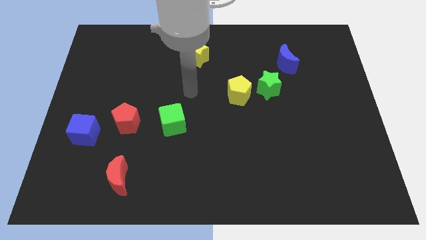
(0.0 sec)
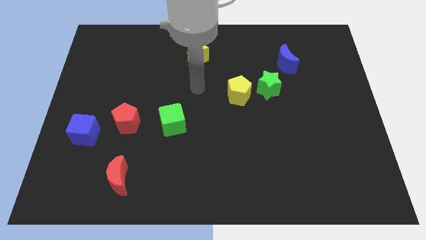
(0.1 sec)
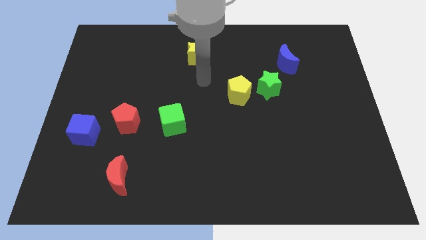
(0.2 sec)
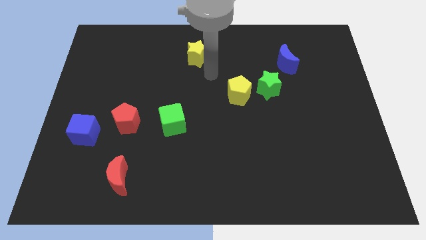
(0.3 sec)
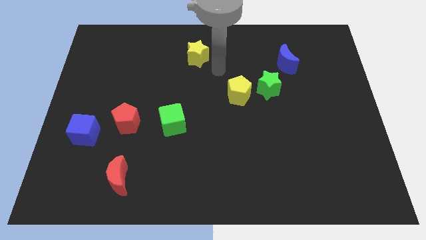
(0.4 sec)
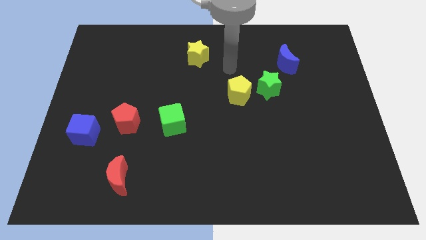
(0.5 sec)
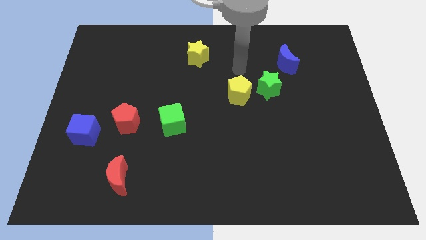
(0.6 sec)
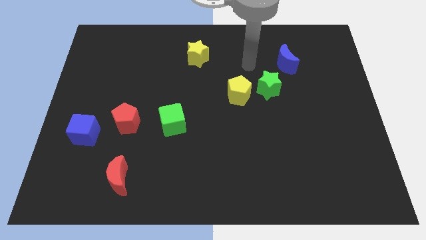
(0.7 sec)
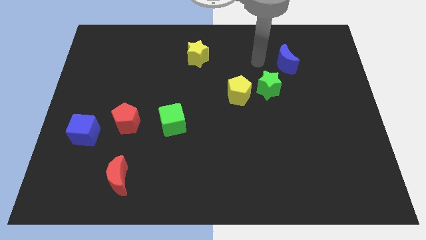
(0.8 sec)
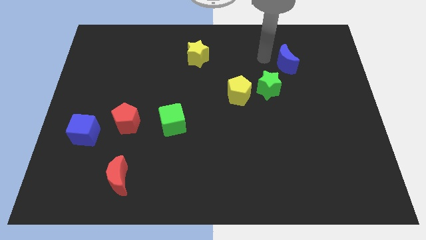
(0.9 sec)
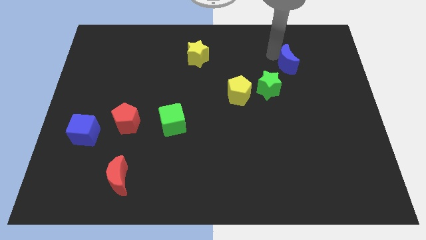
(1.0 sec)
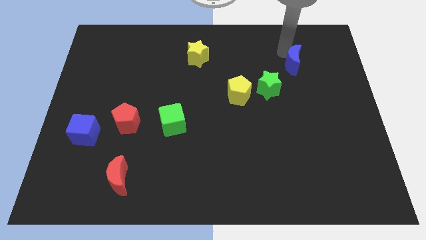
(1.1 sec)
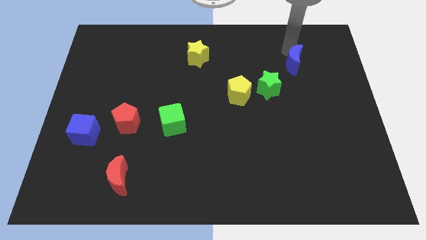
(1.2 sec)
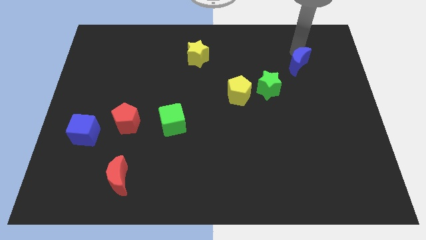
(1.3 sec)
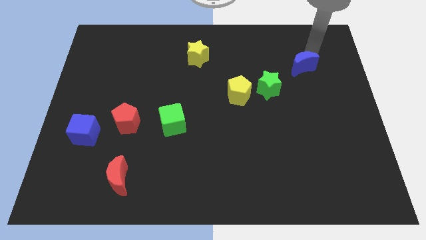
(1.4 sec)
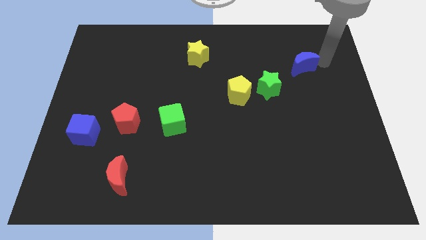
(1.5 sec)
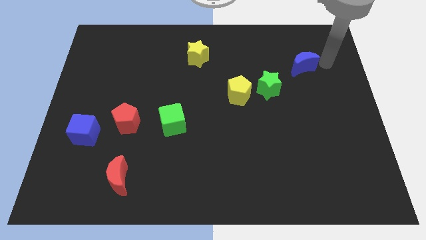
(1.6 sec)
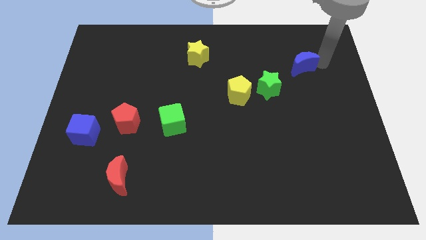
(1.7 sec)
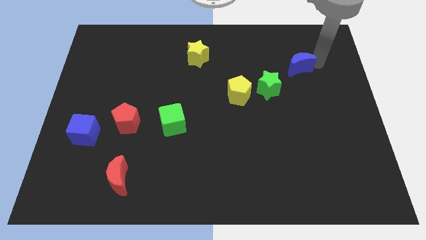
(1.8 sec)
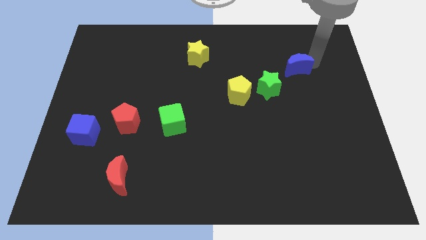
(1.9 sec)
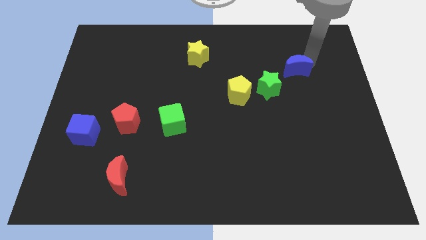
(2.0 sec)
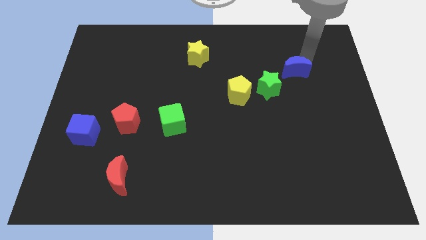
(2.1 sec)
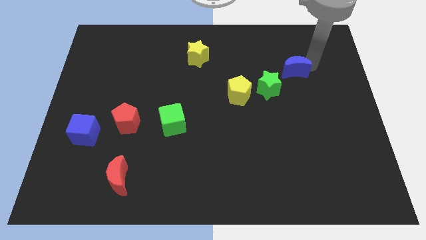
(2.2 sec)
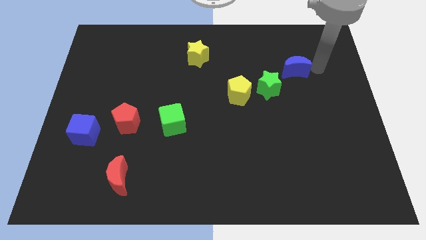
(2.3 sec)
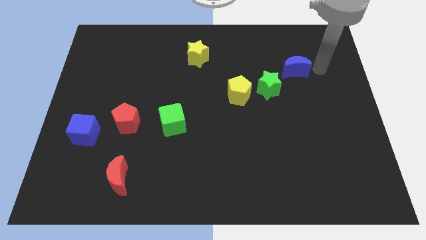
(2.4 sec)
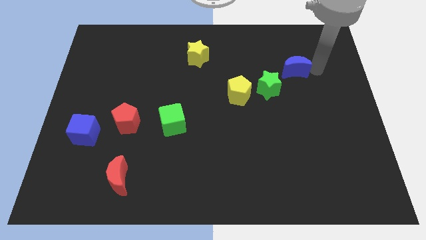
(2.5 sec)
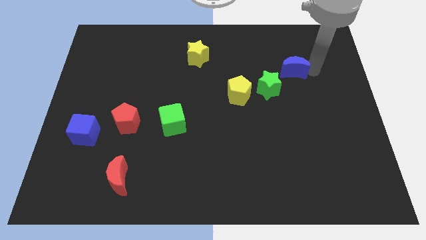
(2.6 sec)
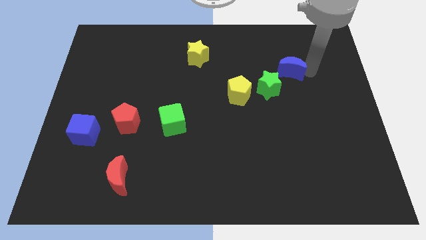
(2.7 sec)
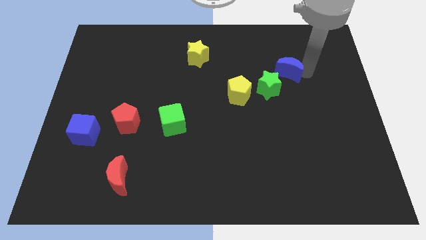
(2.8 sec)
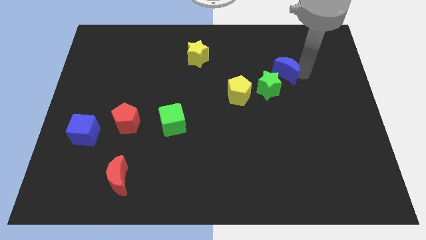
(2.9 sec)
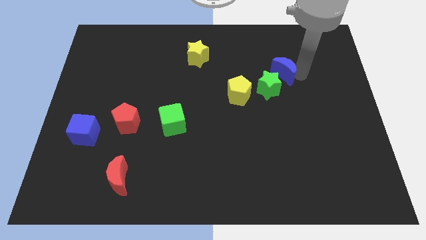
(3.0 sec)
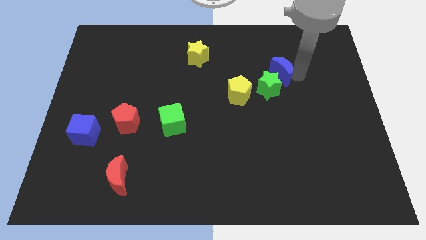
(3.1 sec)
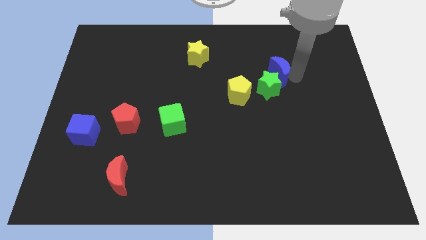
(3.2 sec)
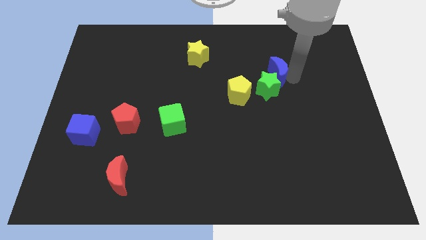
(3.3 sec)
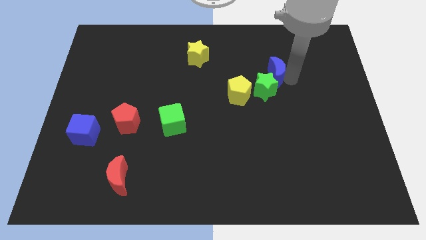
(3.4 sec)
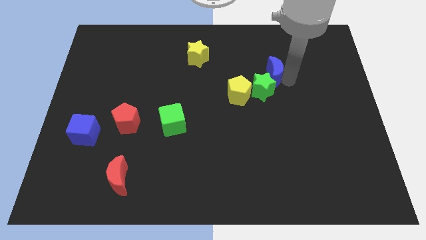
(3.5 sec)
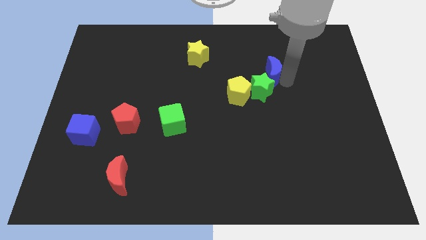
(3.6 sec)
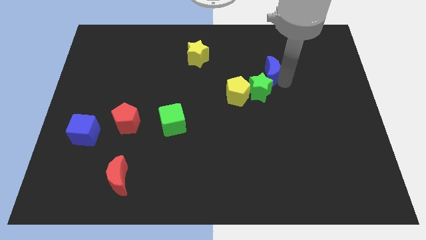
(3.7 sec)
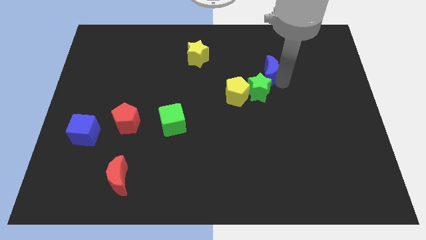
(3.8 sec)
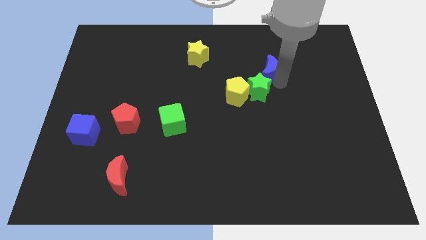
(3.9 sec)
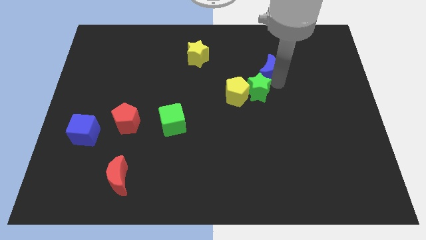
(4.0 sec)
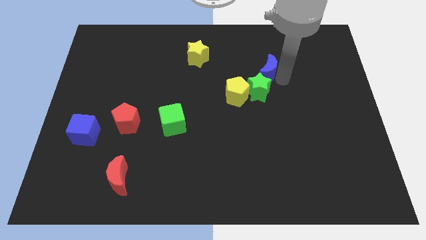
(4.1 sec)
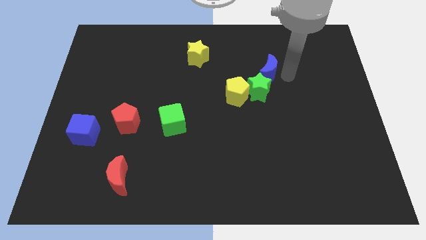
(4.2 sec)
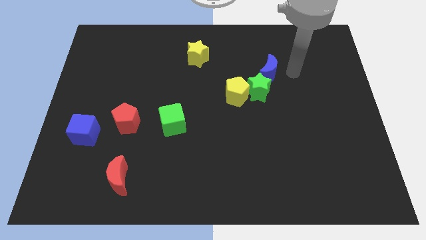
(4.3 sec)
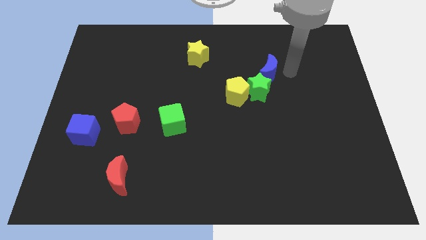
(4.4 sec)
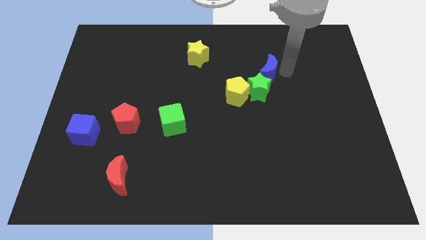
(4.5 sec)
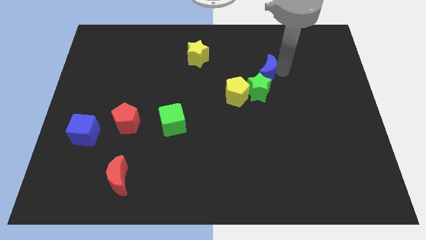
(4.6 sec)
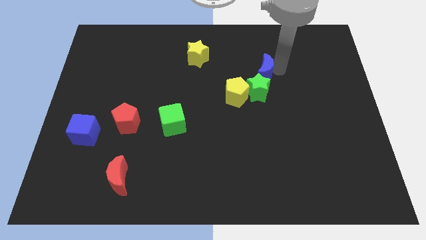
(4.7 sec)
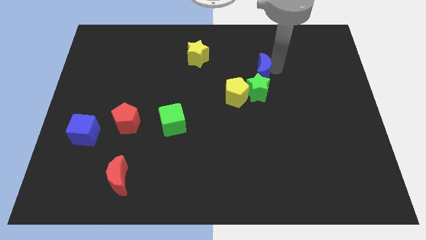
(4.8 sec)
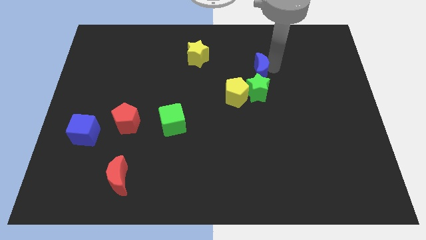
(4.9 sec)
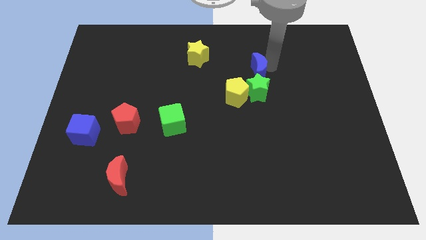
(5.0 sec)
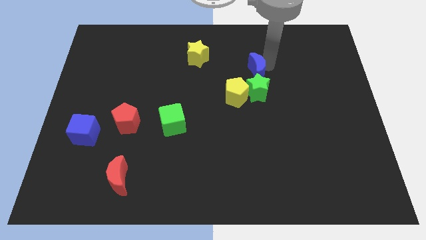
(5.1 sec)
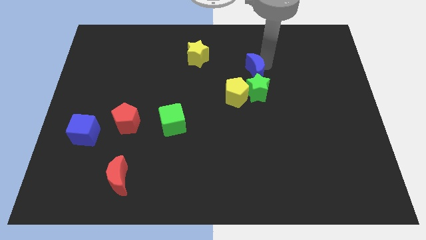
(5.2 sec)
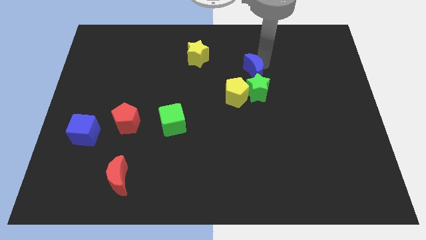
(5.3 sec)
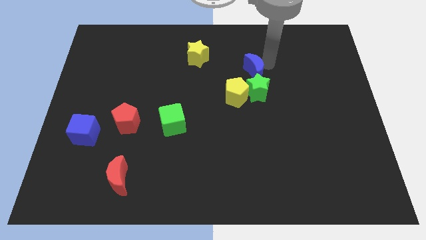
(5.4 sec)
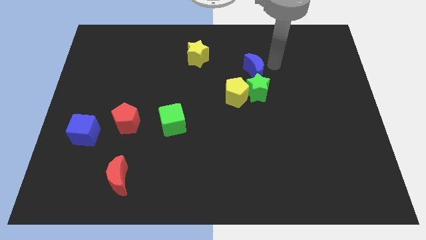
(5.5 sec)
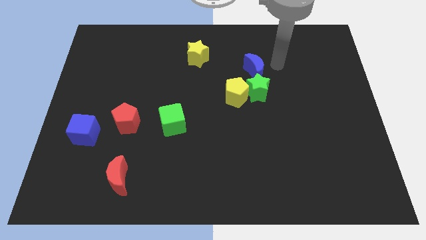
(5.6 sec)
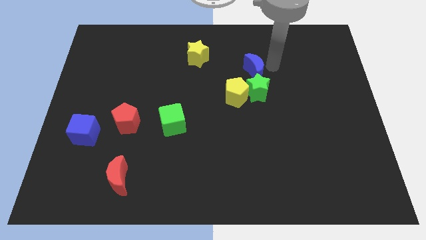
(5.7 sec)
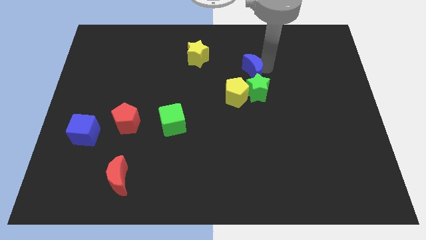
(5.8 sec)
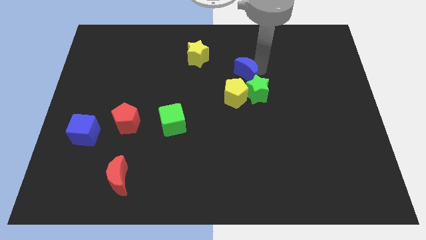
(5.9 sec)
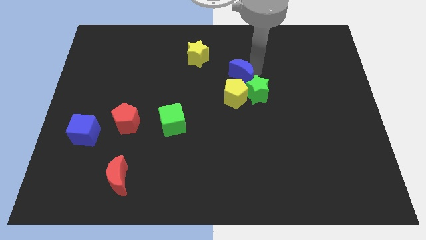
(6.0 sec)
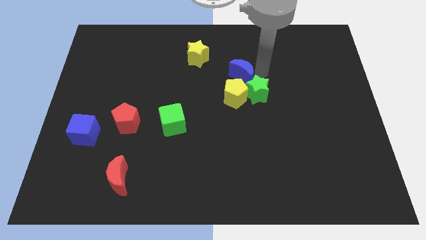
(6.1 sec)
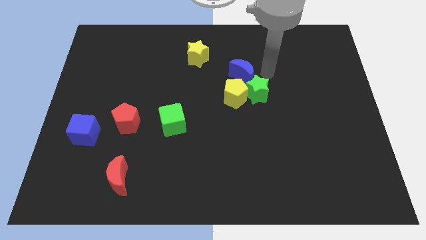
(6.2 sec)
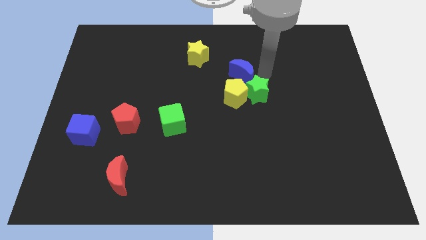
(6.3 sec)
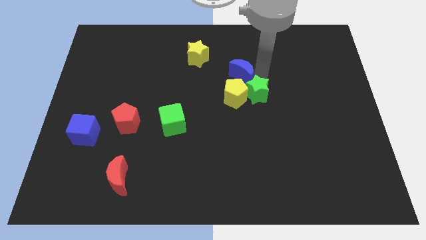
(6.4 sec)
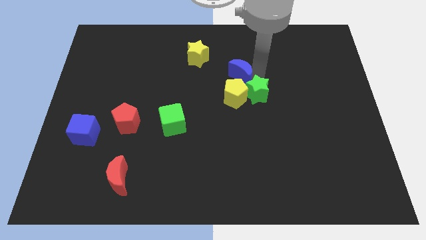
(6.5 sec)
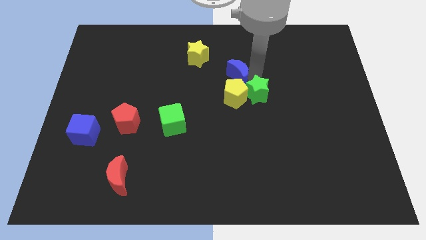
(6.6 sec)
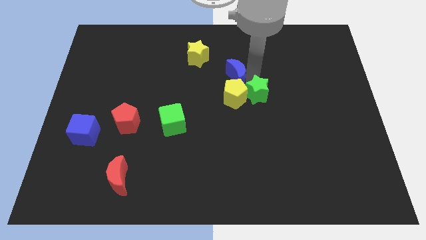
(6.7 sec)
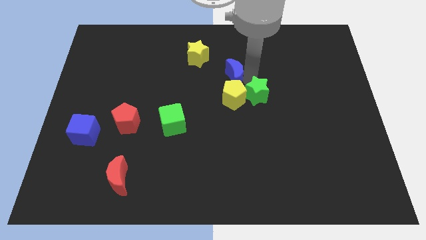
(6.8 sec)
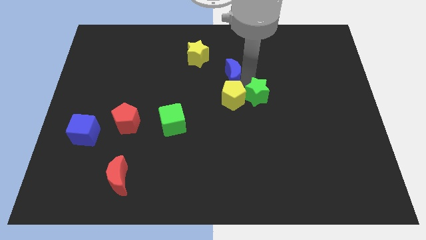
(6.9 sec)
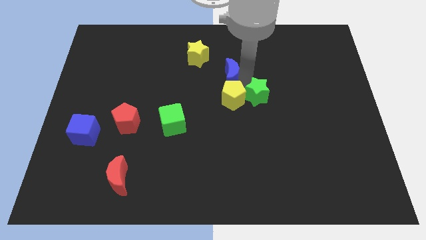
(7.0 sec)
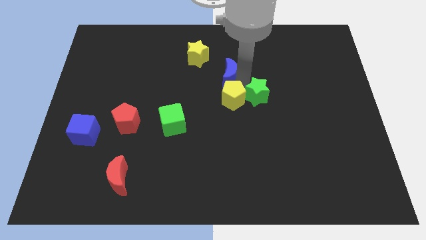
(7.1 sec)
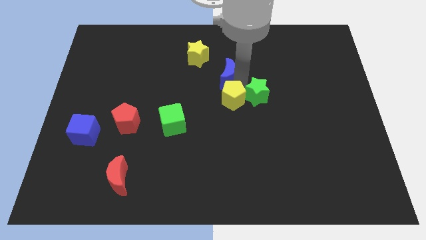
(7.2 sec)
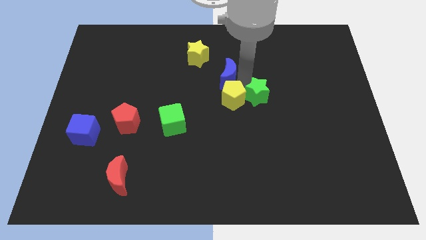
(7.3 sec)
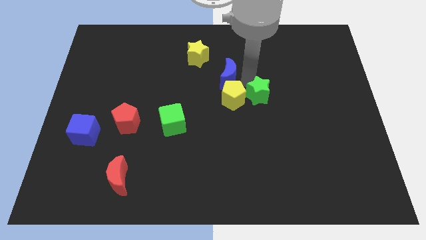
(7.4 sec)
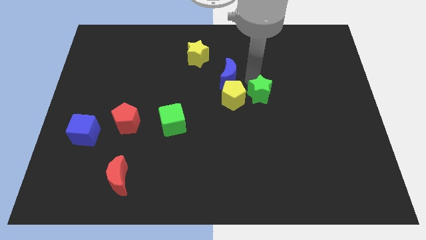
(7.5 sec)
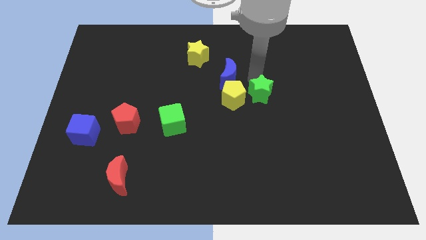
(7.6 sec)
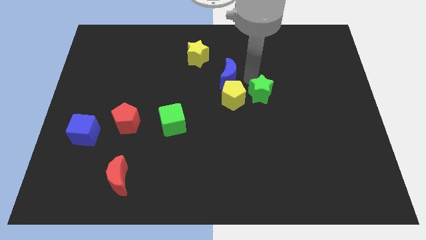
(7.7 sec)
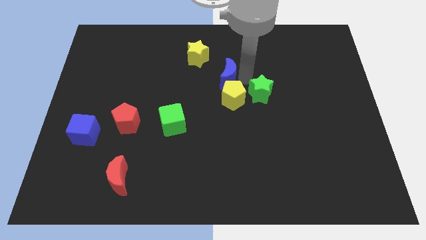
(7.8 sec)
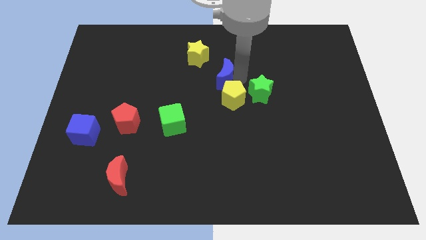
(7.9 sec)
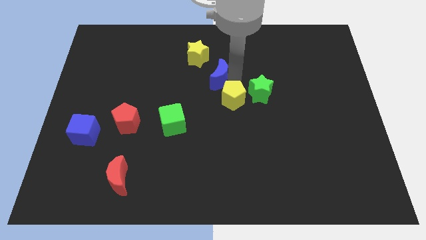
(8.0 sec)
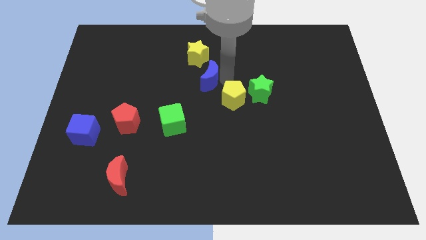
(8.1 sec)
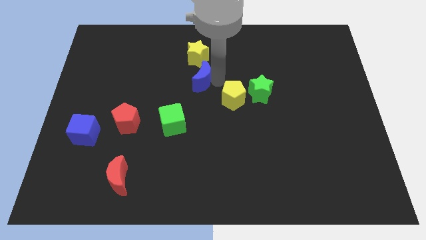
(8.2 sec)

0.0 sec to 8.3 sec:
move the blue moon to the left
